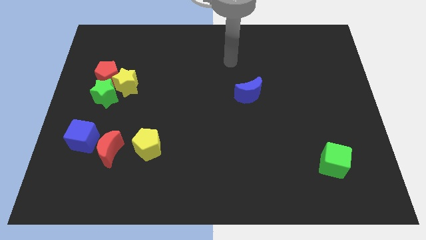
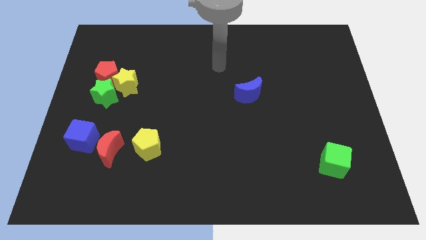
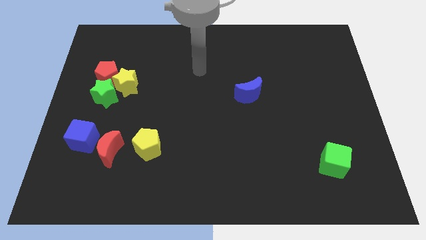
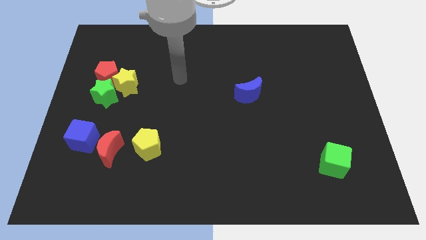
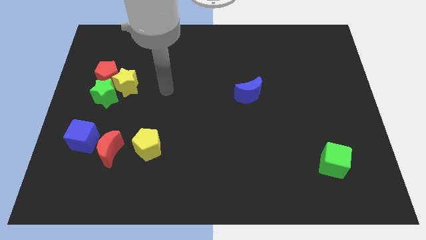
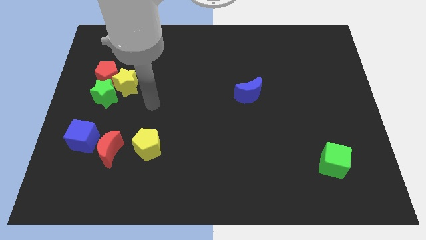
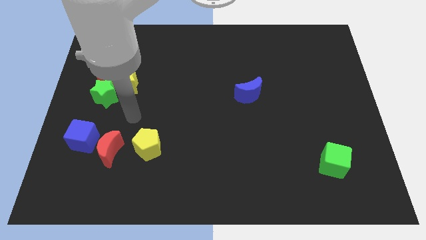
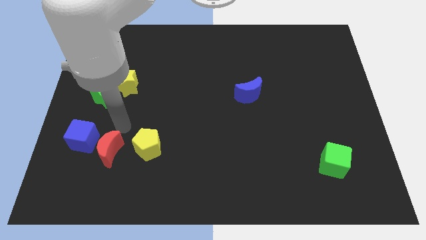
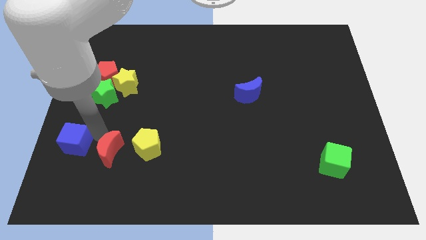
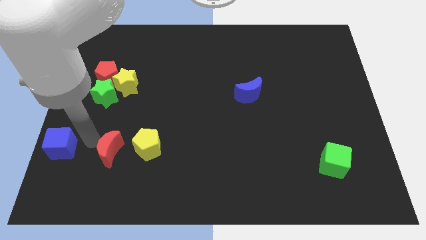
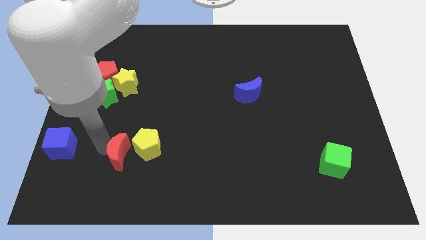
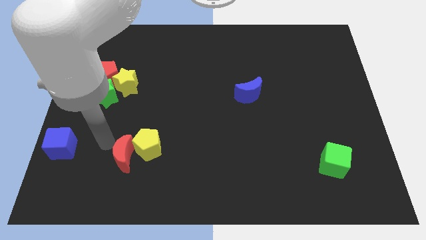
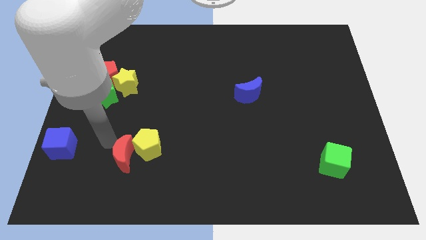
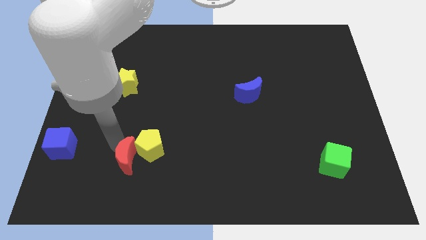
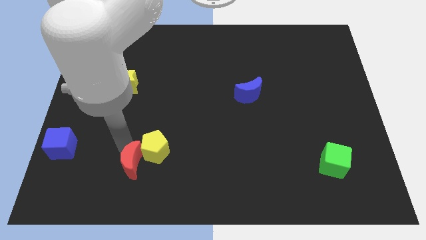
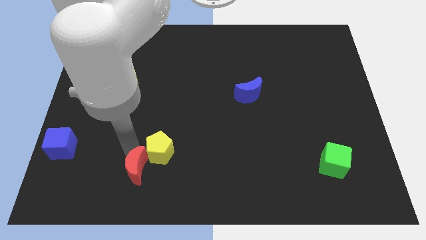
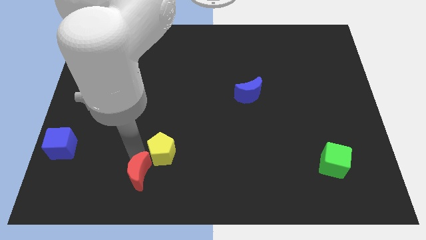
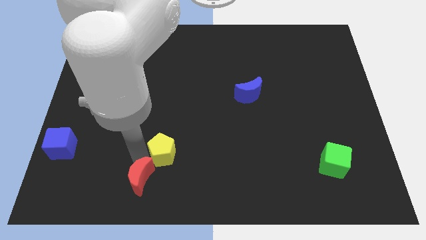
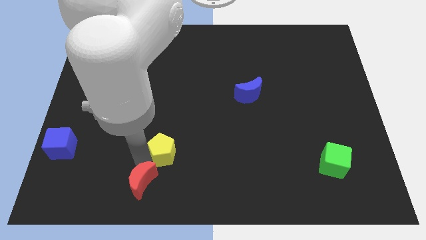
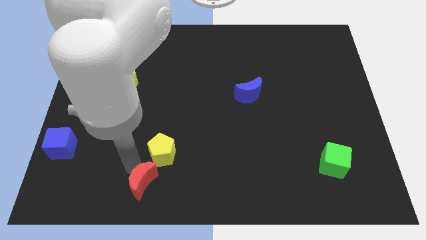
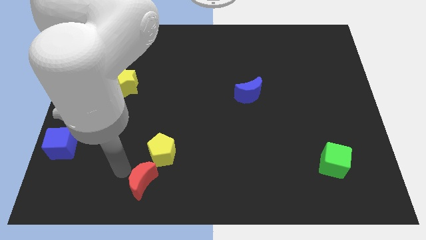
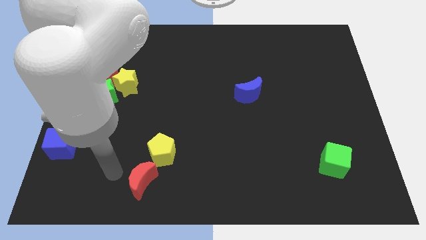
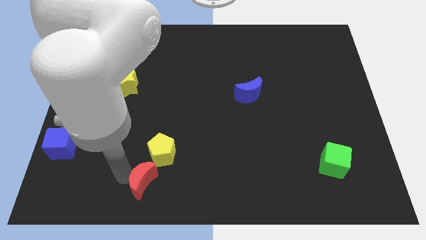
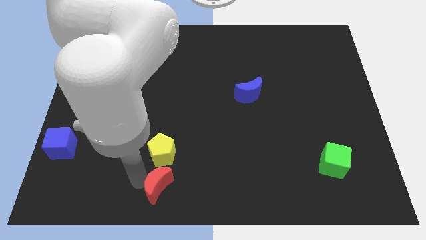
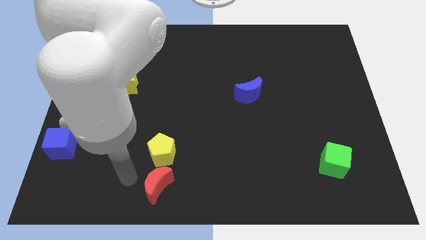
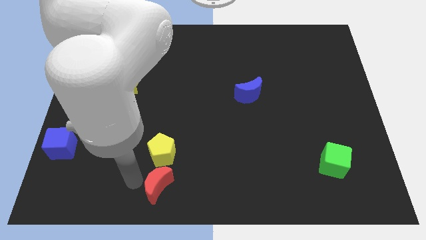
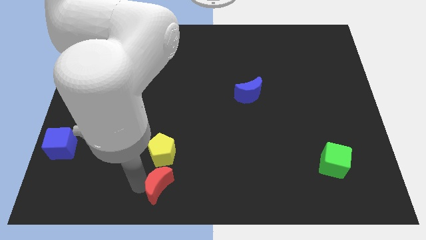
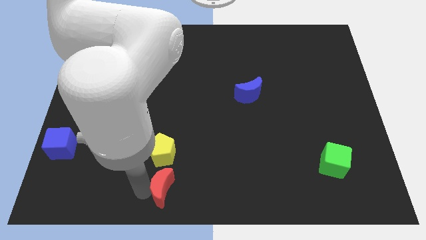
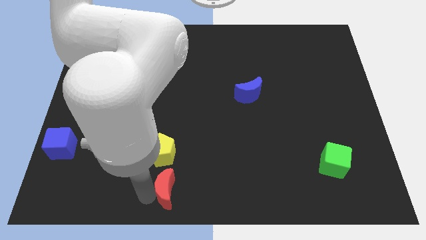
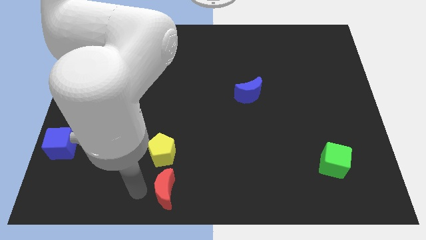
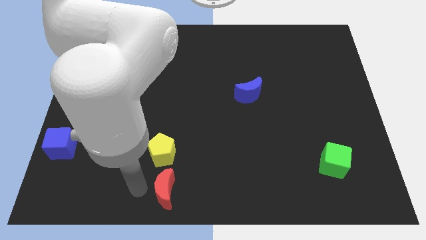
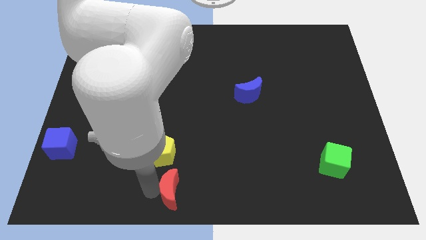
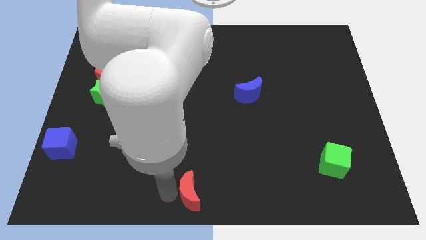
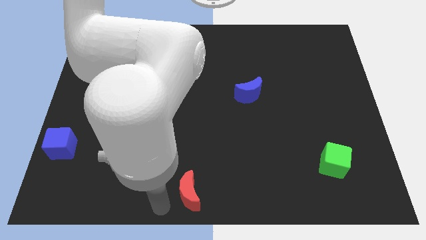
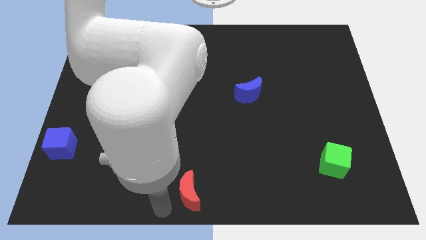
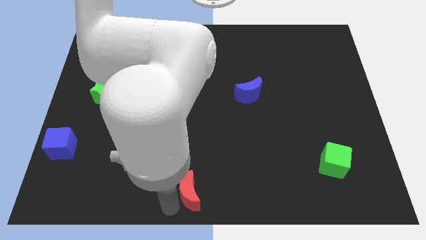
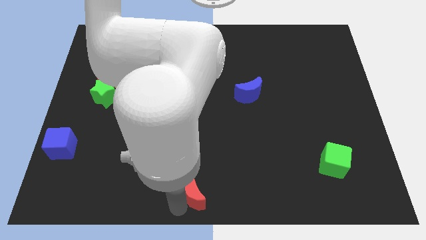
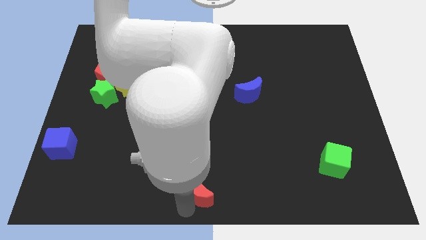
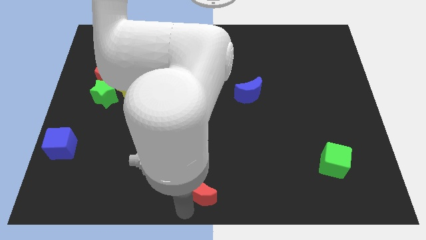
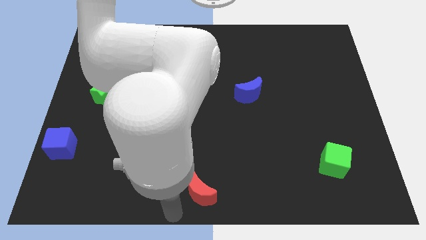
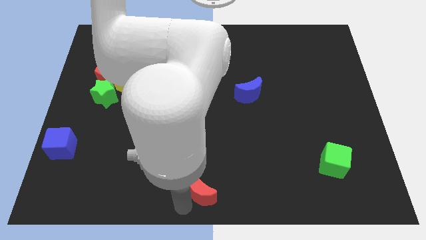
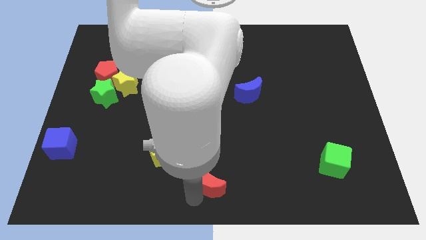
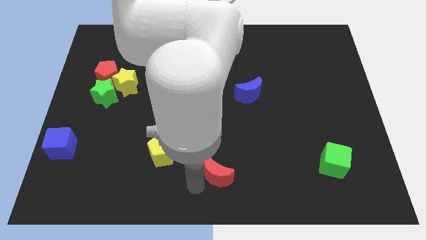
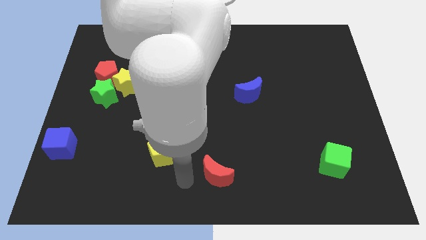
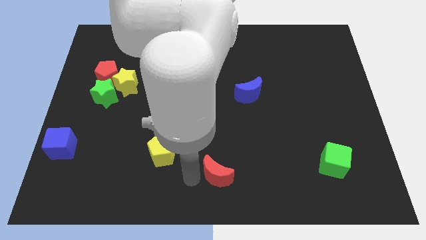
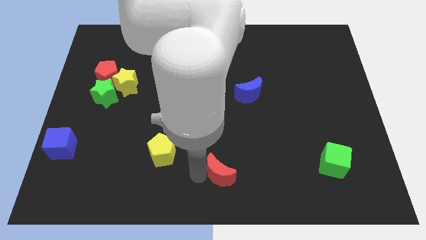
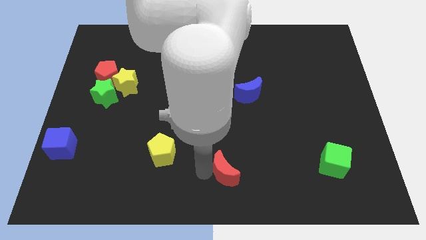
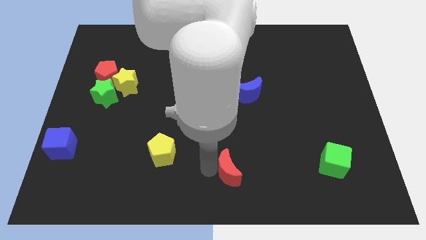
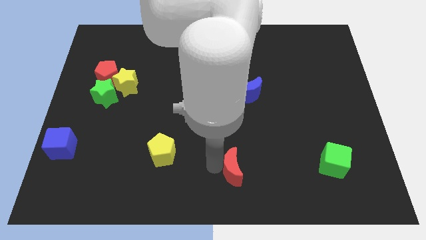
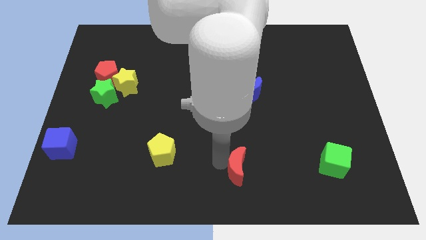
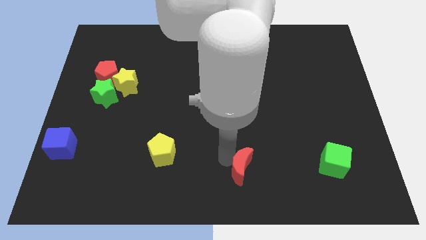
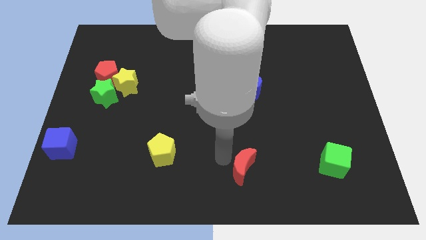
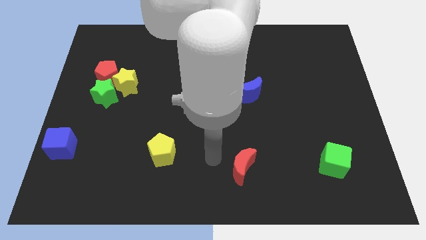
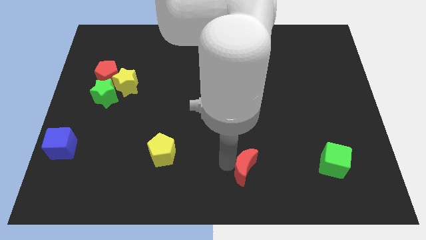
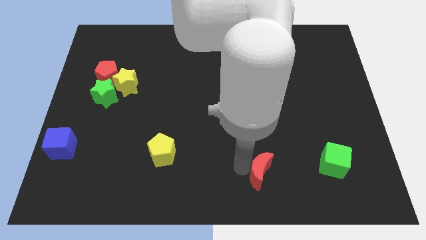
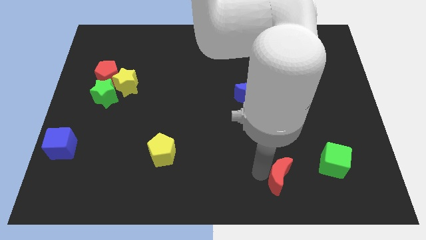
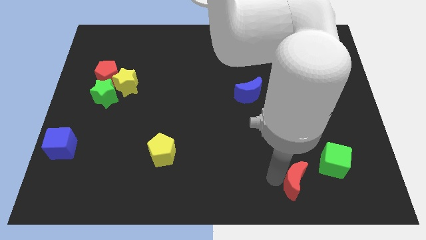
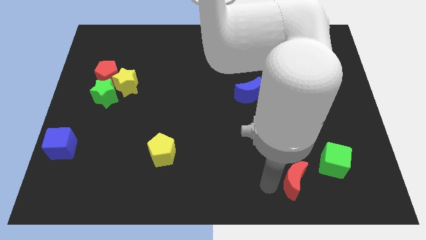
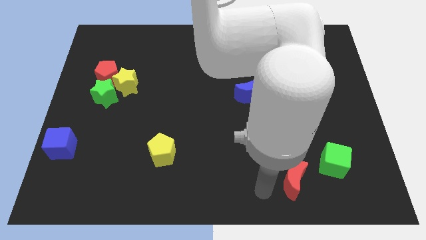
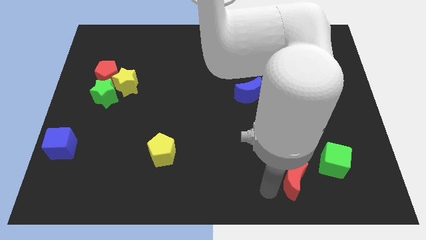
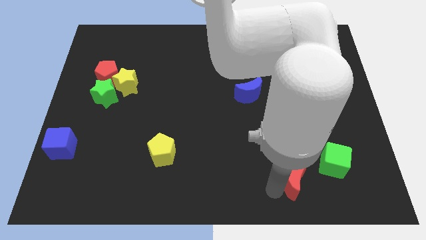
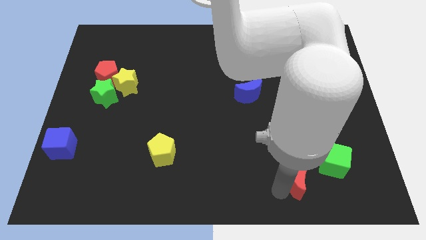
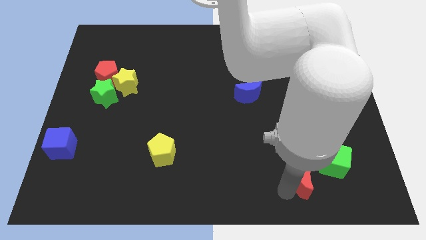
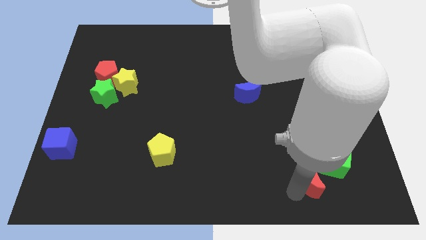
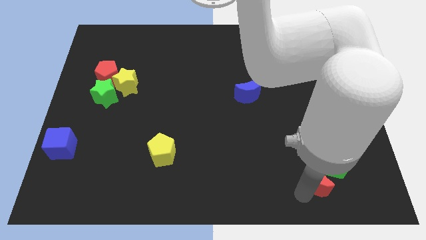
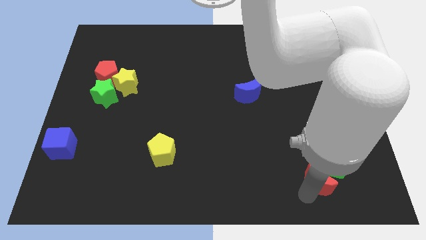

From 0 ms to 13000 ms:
move the red moon next to the green cube
